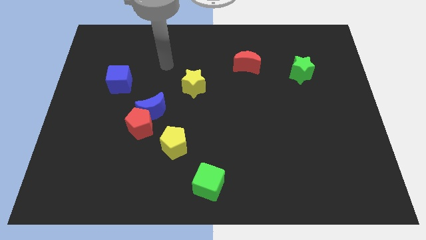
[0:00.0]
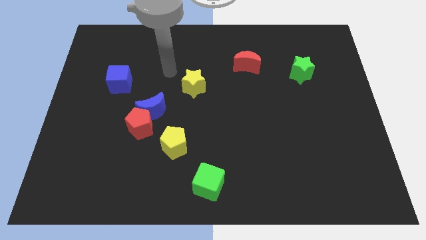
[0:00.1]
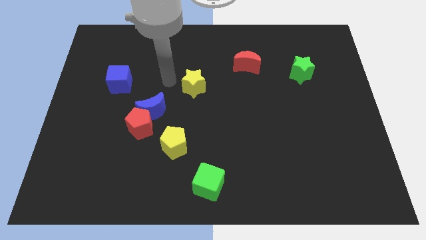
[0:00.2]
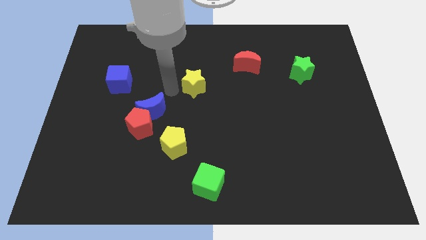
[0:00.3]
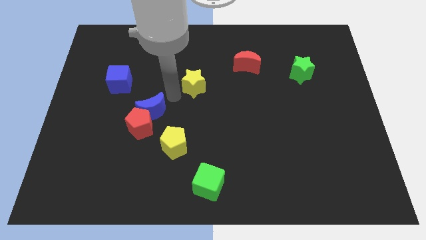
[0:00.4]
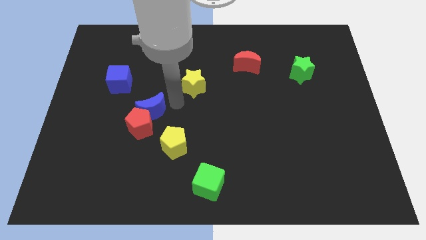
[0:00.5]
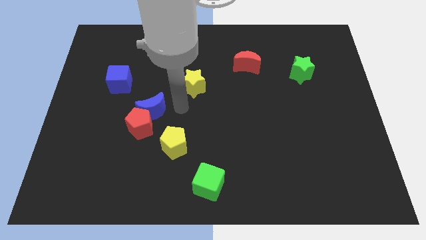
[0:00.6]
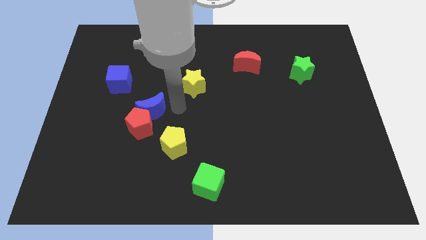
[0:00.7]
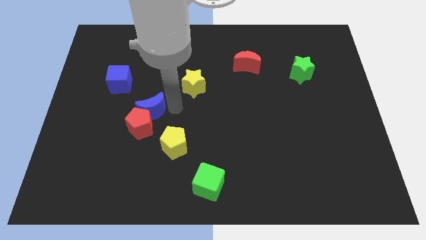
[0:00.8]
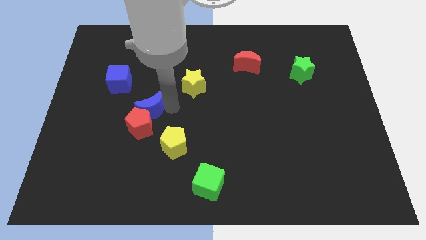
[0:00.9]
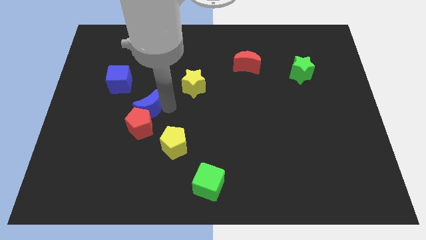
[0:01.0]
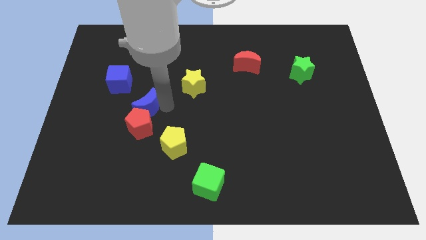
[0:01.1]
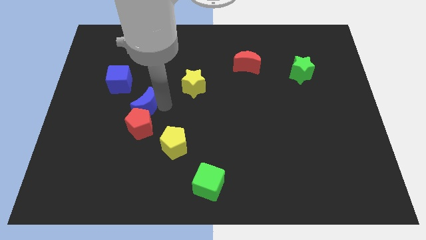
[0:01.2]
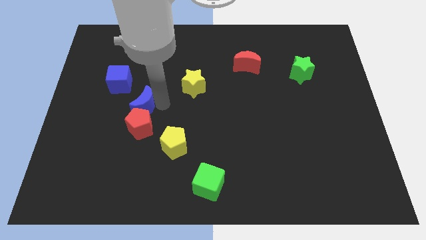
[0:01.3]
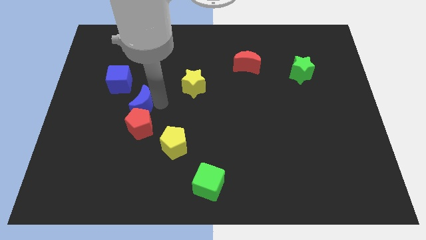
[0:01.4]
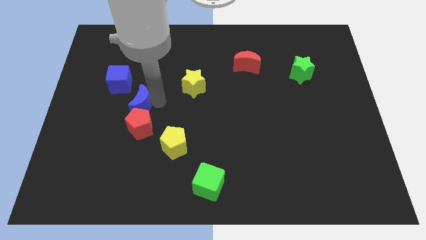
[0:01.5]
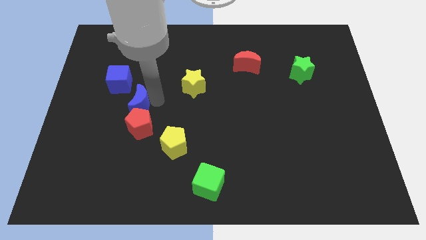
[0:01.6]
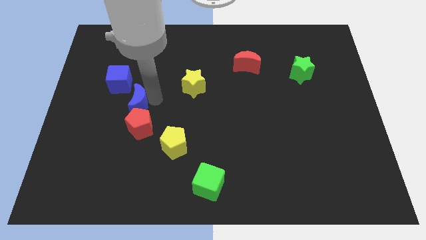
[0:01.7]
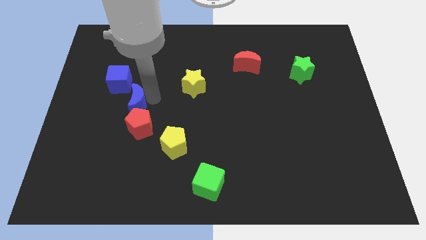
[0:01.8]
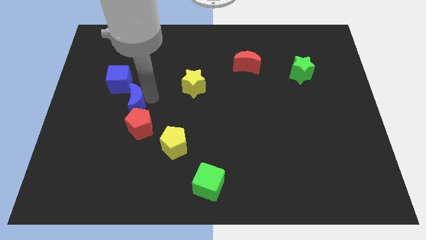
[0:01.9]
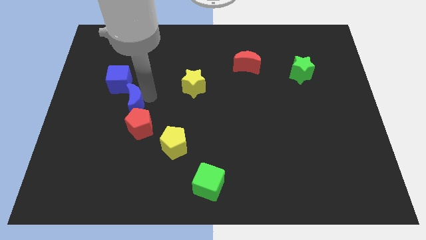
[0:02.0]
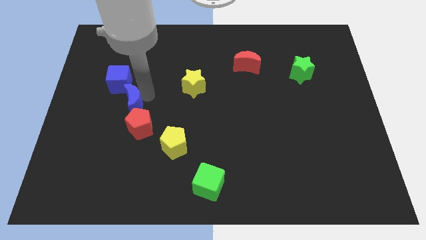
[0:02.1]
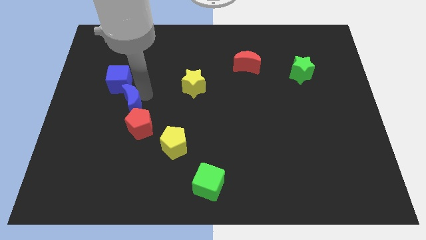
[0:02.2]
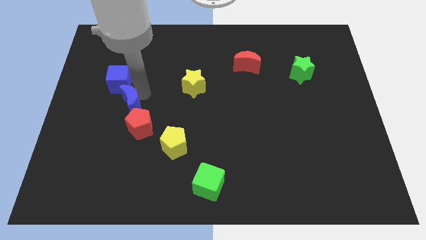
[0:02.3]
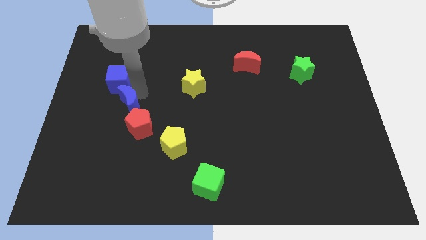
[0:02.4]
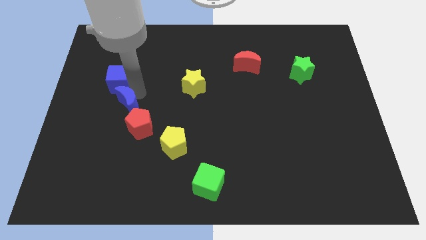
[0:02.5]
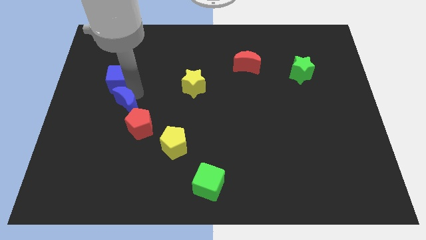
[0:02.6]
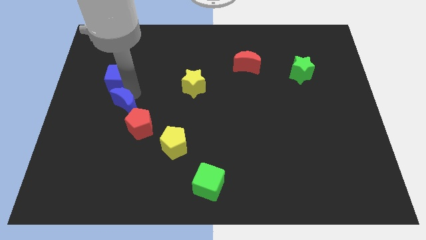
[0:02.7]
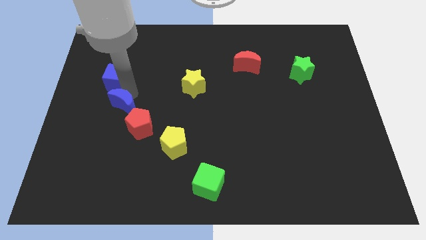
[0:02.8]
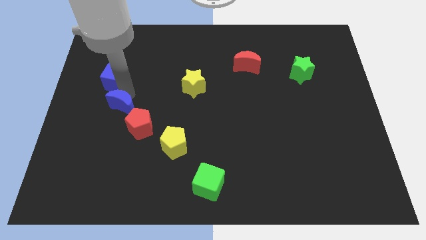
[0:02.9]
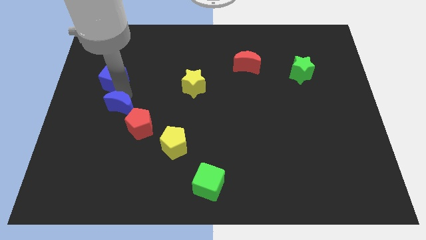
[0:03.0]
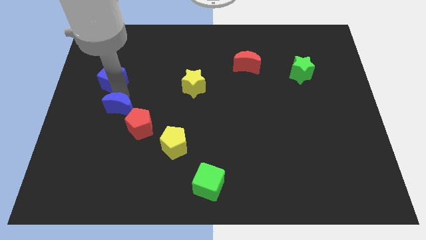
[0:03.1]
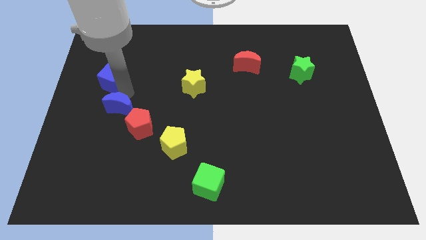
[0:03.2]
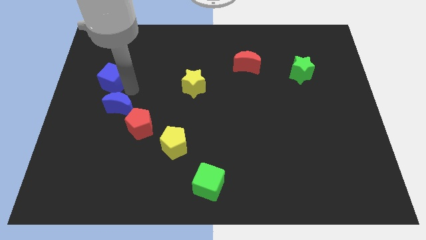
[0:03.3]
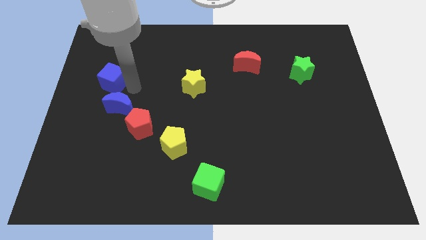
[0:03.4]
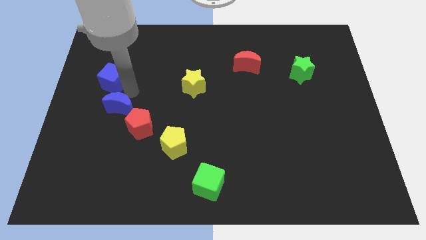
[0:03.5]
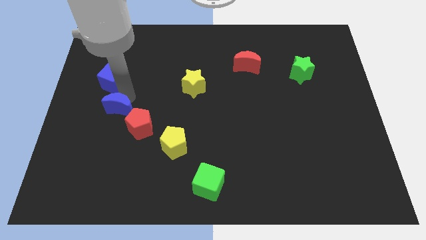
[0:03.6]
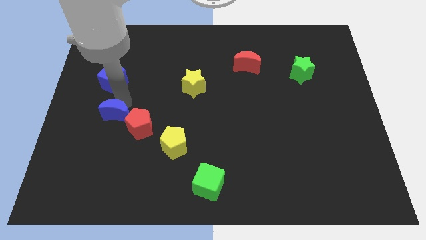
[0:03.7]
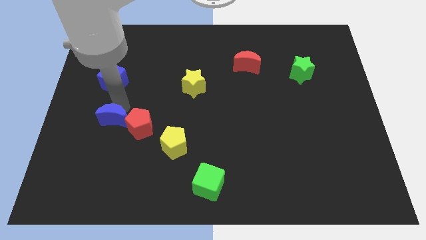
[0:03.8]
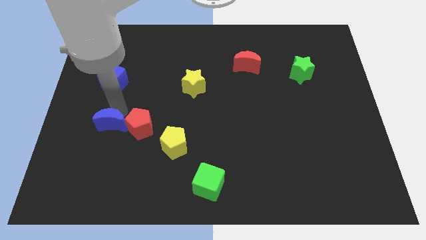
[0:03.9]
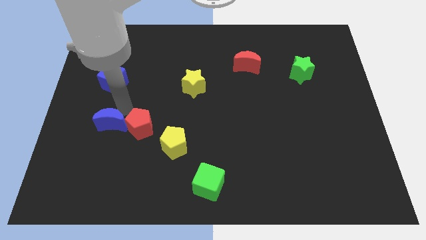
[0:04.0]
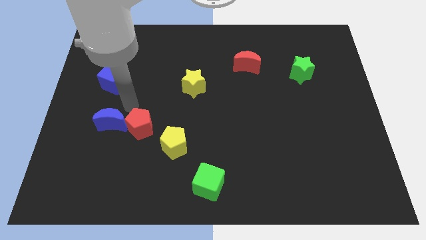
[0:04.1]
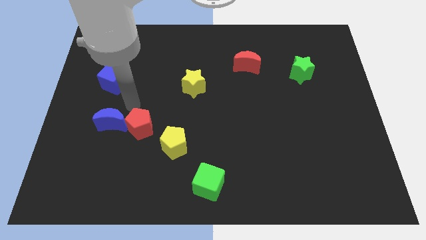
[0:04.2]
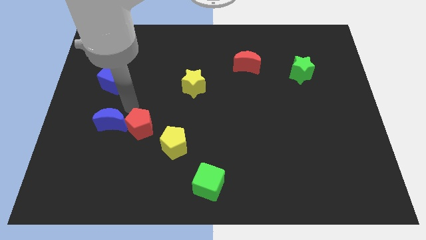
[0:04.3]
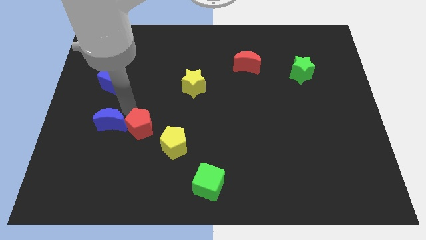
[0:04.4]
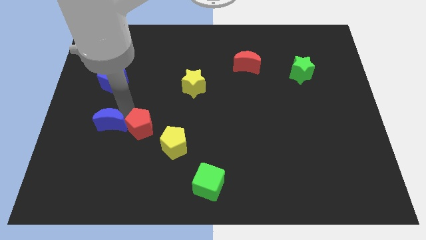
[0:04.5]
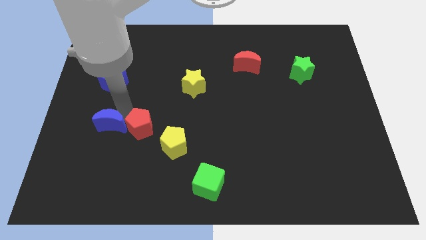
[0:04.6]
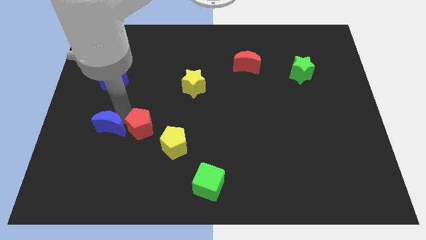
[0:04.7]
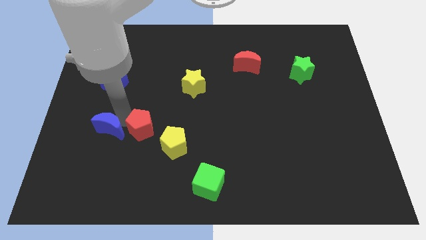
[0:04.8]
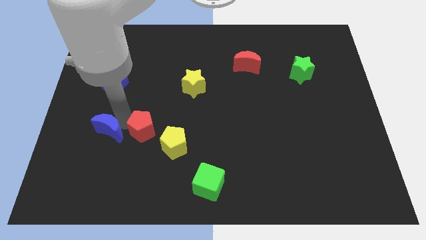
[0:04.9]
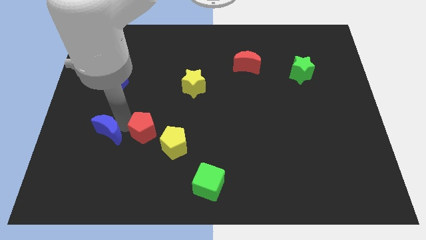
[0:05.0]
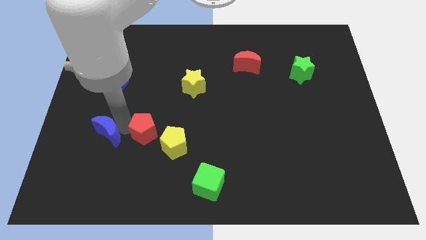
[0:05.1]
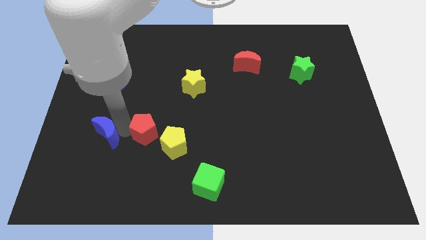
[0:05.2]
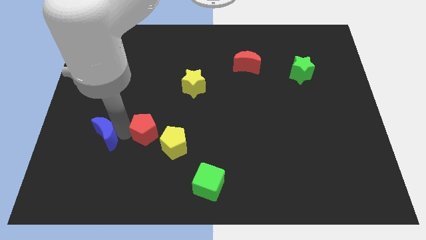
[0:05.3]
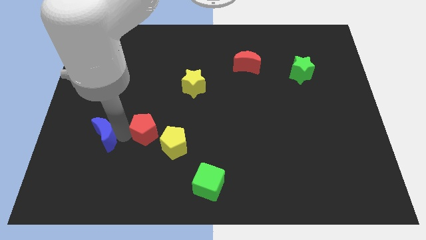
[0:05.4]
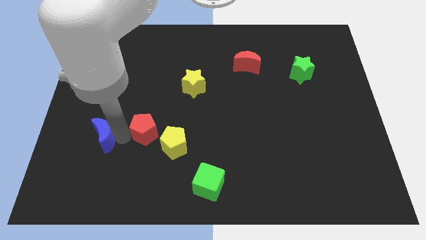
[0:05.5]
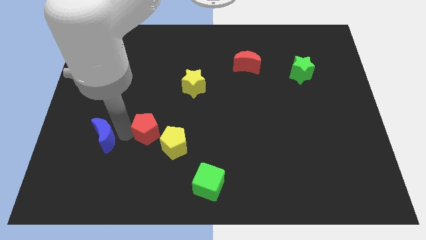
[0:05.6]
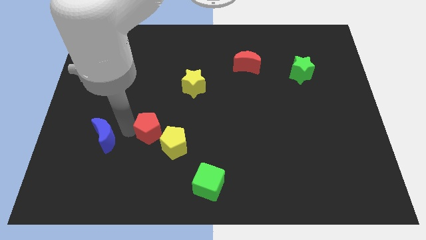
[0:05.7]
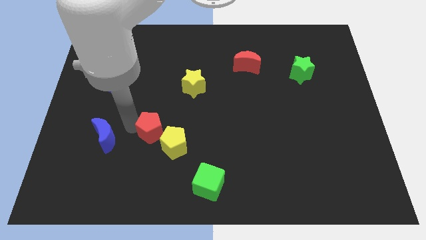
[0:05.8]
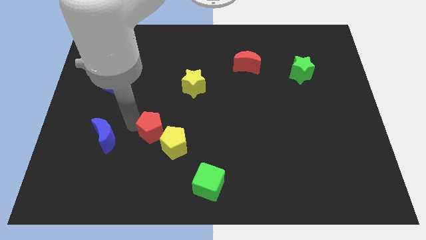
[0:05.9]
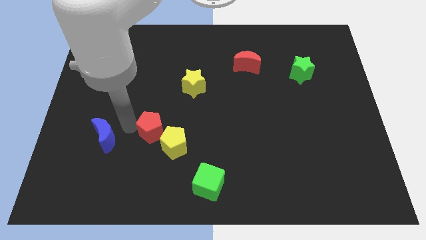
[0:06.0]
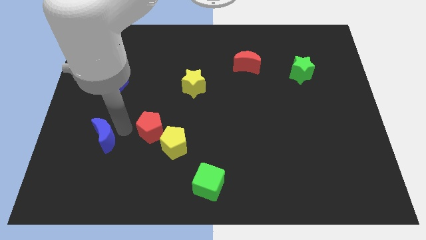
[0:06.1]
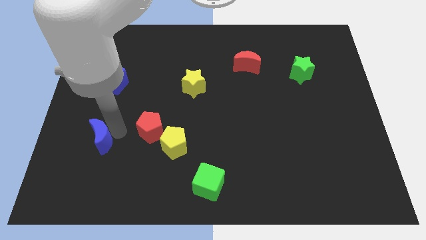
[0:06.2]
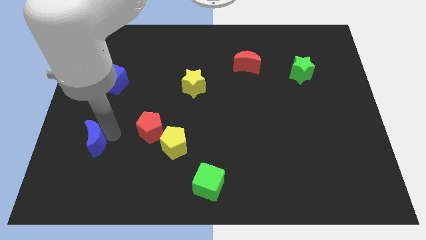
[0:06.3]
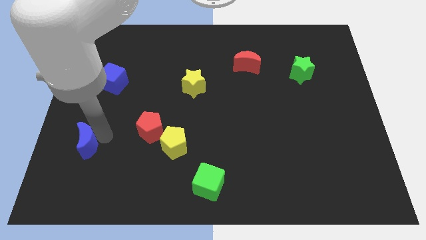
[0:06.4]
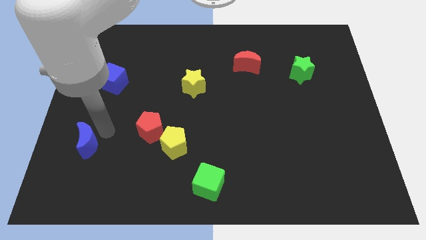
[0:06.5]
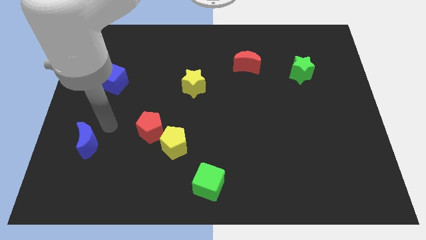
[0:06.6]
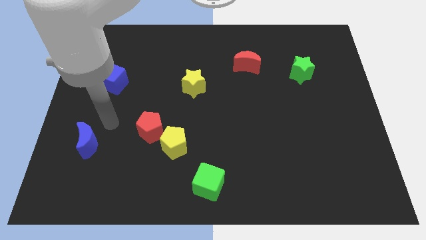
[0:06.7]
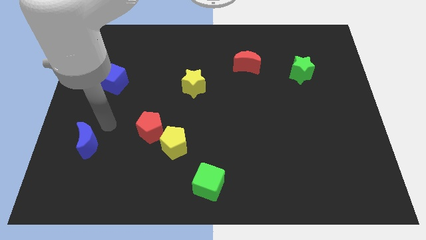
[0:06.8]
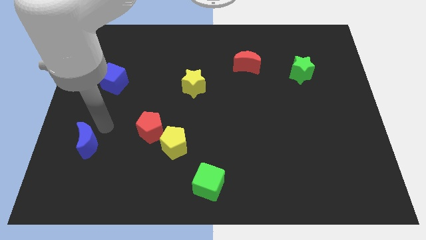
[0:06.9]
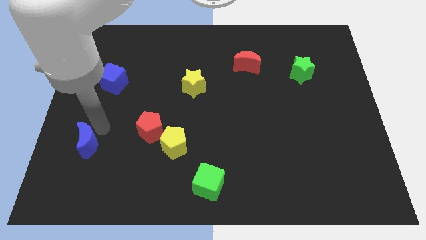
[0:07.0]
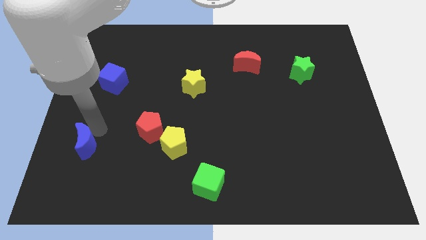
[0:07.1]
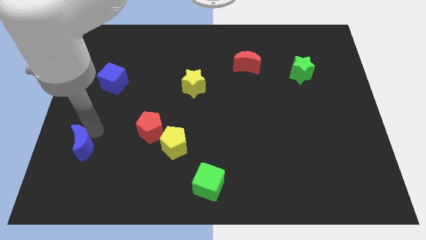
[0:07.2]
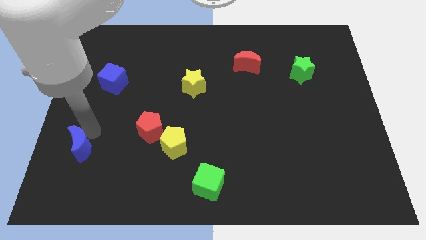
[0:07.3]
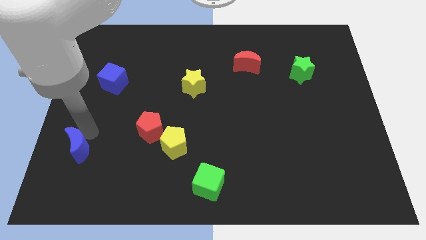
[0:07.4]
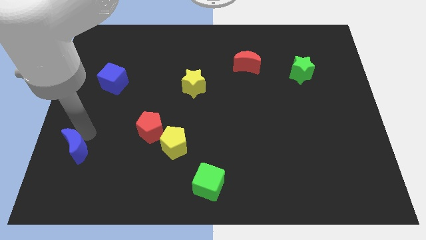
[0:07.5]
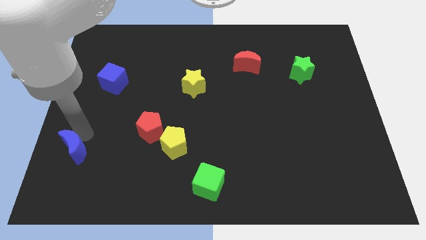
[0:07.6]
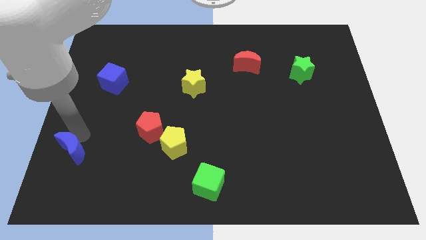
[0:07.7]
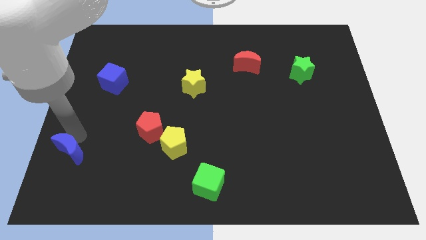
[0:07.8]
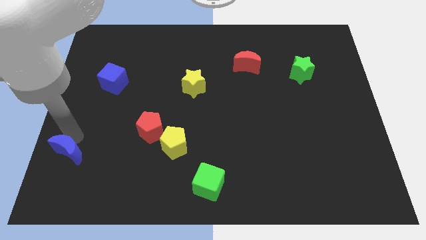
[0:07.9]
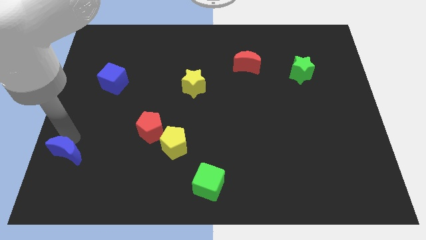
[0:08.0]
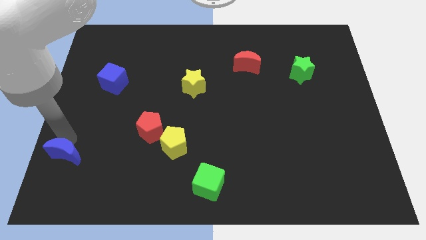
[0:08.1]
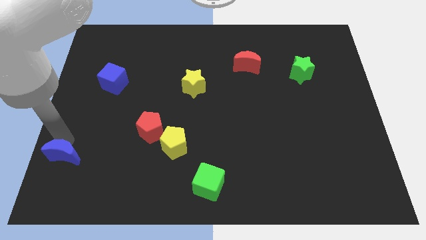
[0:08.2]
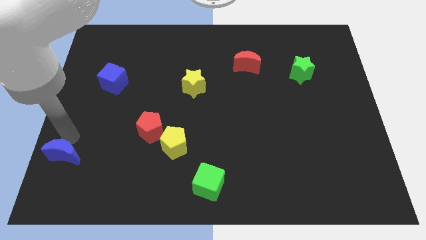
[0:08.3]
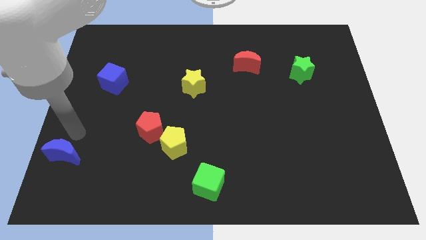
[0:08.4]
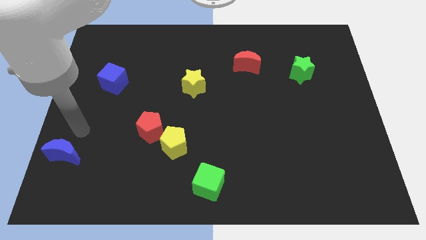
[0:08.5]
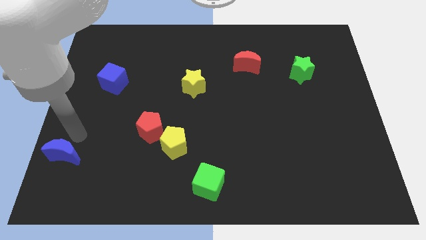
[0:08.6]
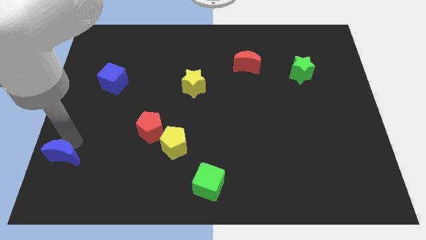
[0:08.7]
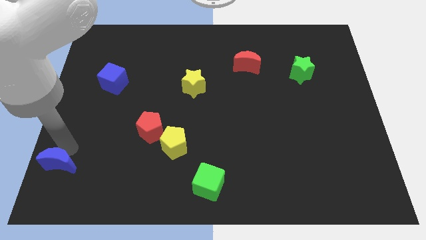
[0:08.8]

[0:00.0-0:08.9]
put the blue moon to the bottom left of the board
